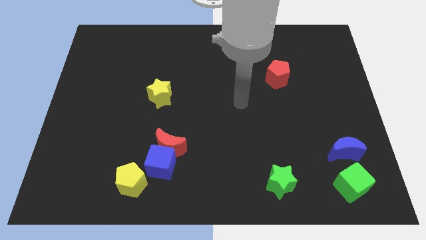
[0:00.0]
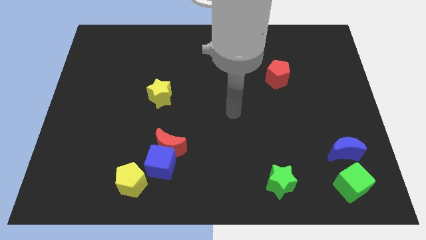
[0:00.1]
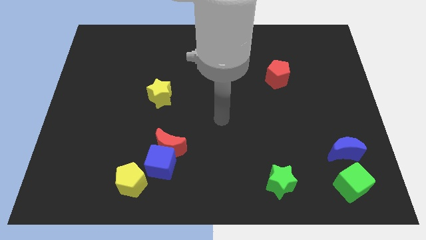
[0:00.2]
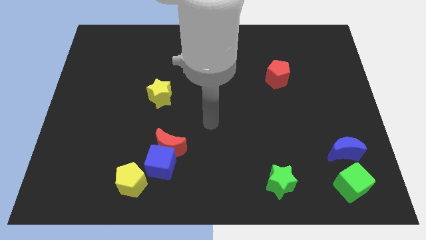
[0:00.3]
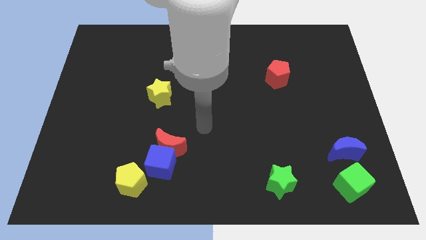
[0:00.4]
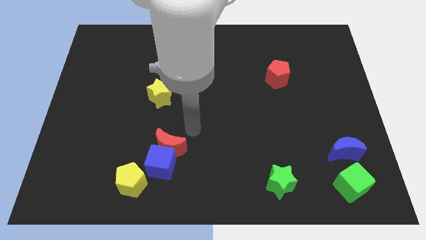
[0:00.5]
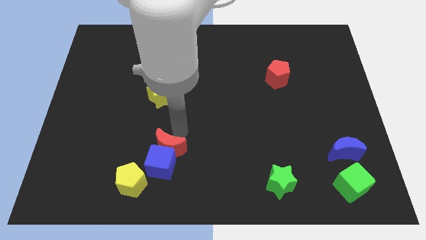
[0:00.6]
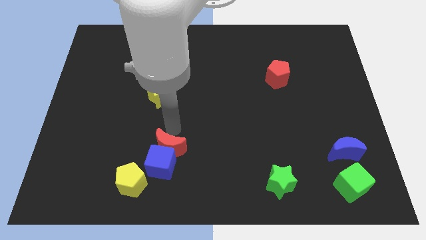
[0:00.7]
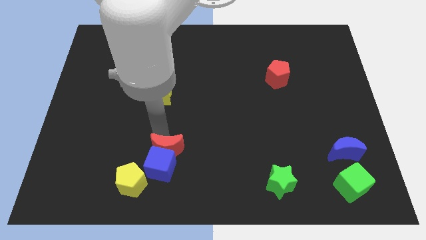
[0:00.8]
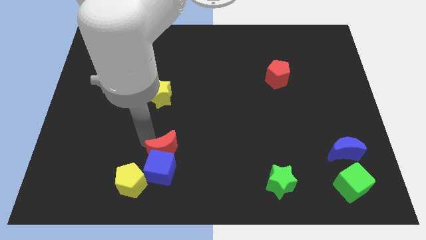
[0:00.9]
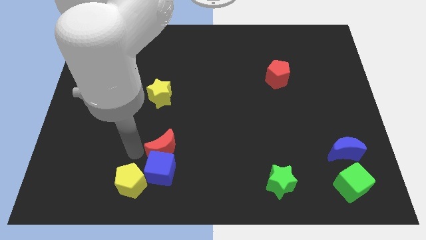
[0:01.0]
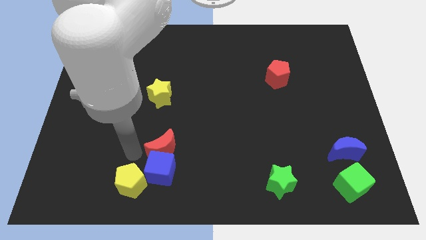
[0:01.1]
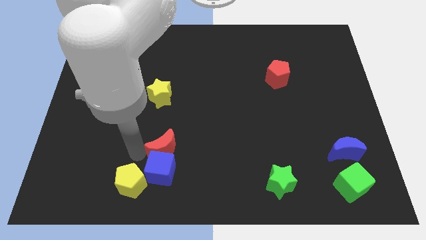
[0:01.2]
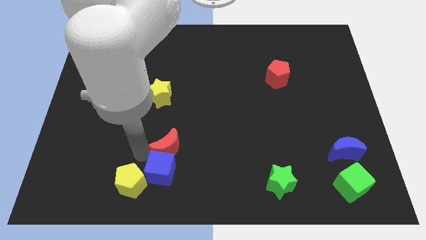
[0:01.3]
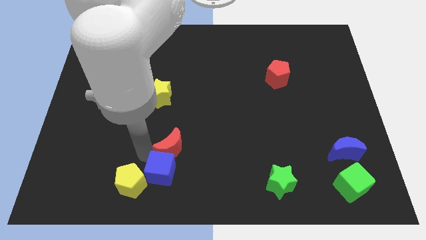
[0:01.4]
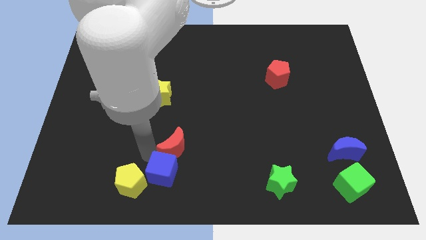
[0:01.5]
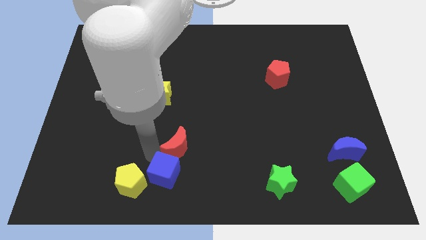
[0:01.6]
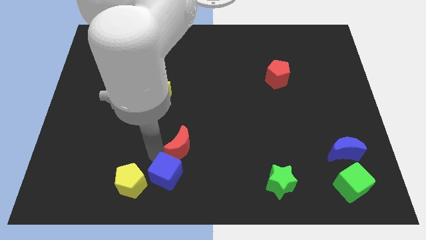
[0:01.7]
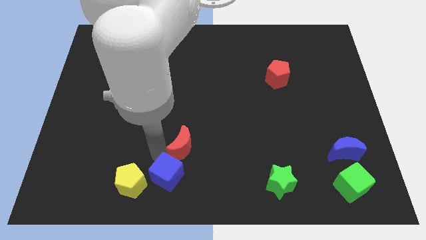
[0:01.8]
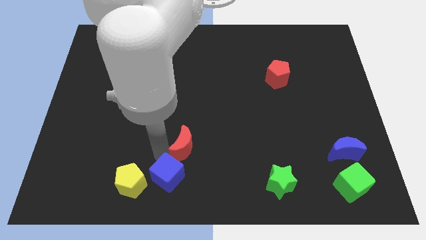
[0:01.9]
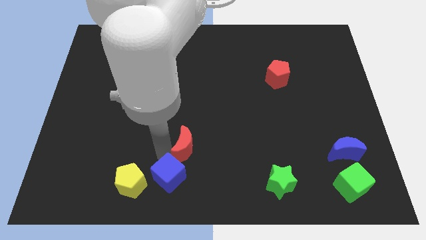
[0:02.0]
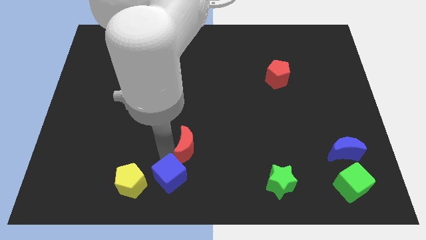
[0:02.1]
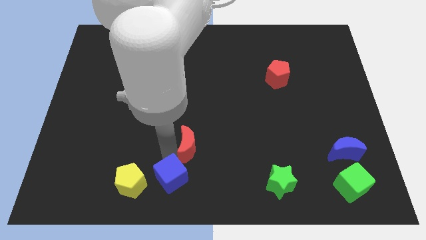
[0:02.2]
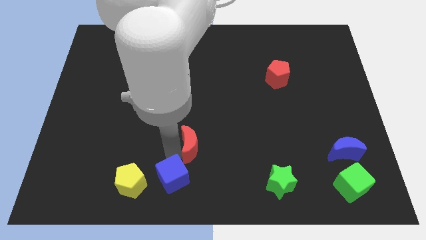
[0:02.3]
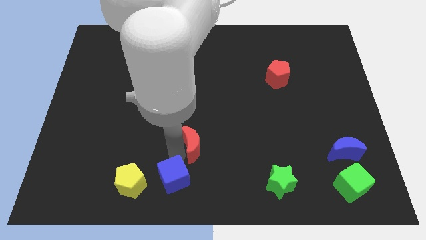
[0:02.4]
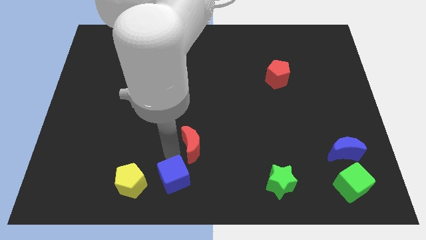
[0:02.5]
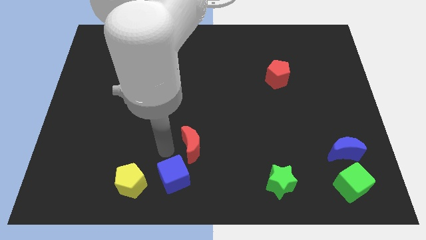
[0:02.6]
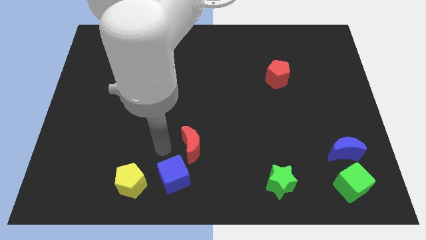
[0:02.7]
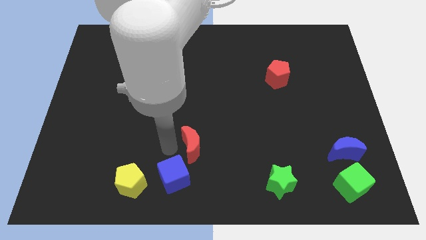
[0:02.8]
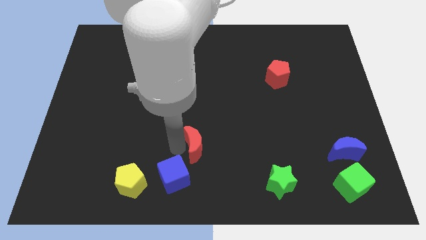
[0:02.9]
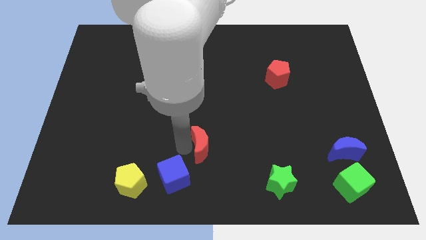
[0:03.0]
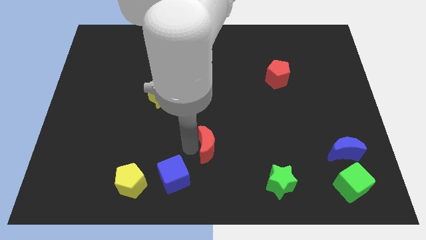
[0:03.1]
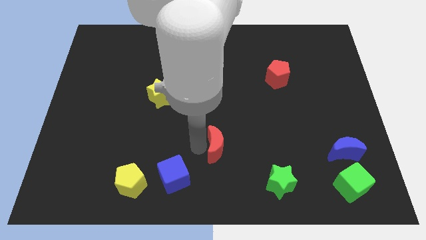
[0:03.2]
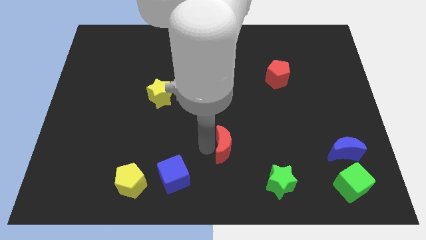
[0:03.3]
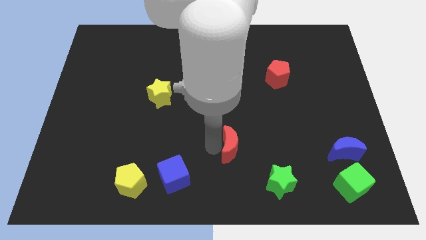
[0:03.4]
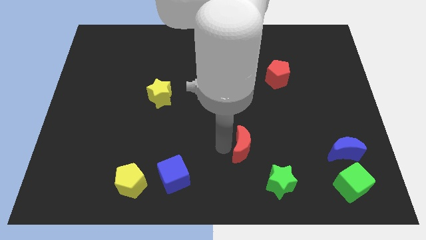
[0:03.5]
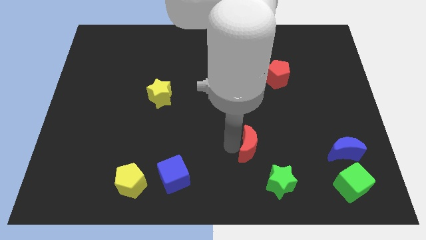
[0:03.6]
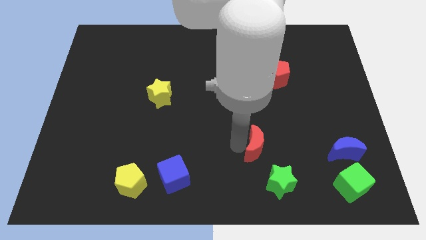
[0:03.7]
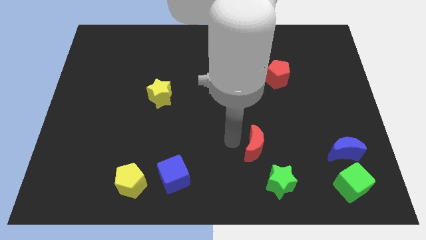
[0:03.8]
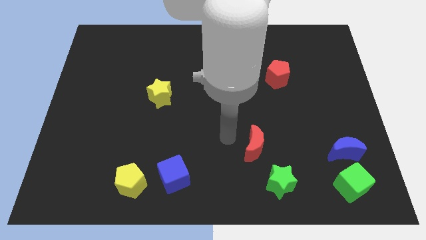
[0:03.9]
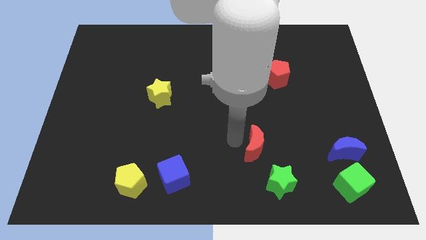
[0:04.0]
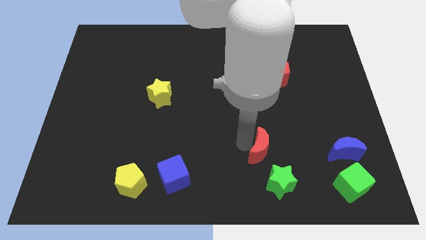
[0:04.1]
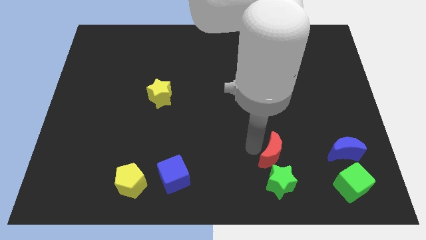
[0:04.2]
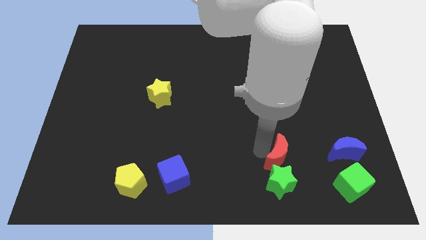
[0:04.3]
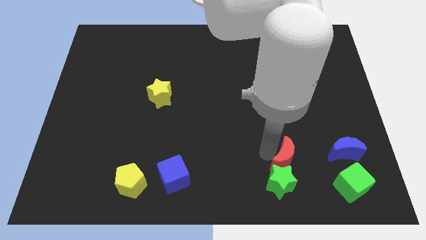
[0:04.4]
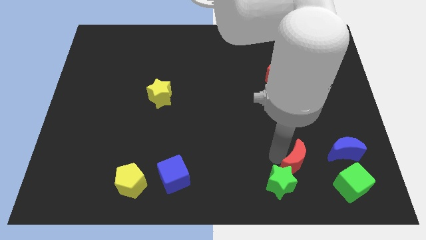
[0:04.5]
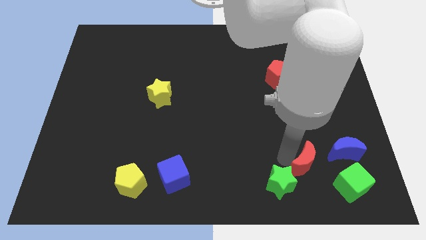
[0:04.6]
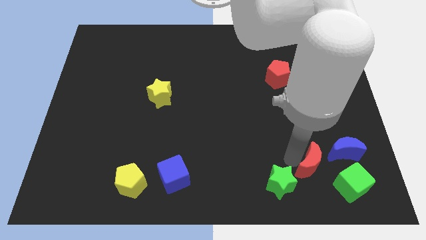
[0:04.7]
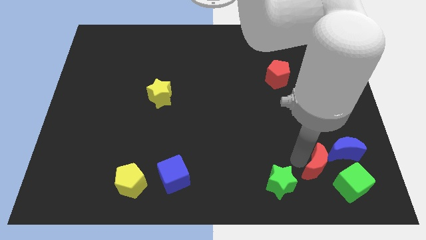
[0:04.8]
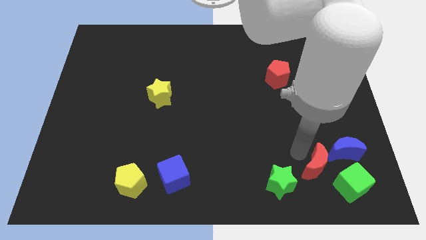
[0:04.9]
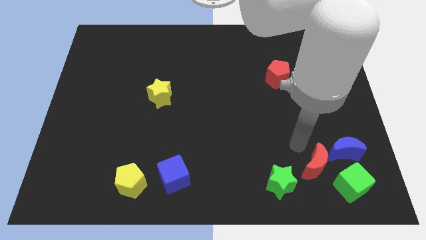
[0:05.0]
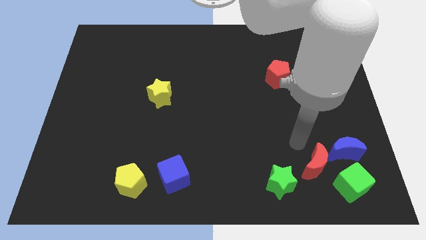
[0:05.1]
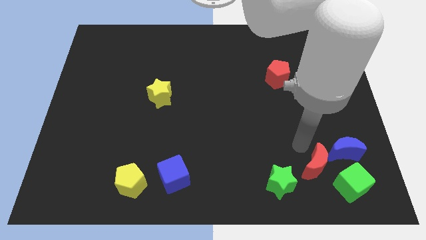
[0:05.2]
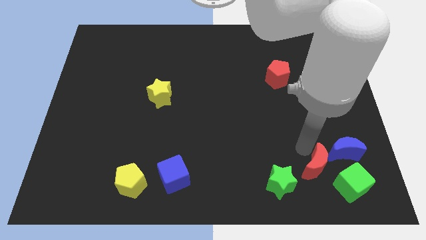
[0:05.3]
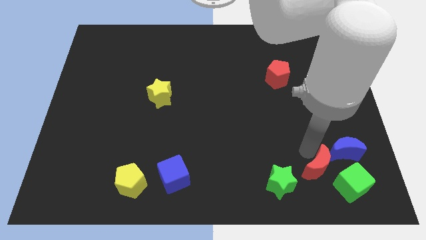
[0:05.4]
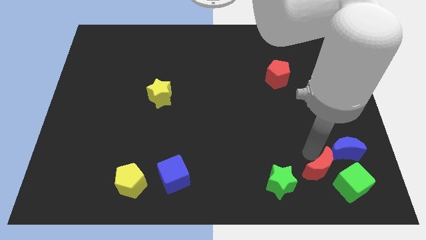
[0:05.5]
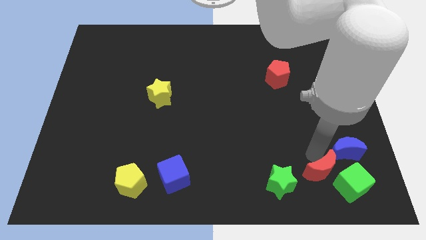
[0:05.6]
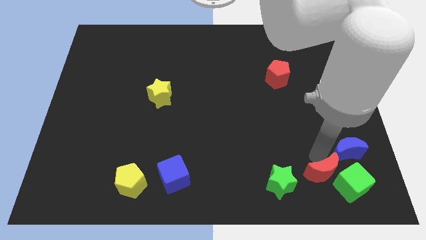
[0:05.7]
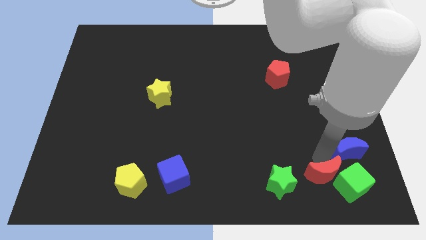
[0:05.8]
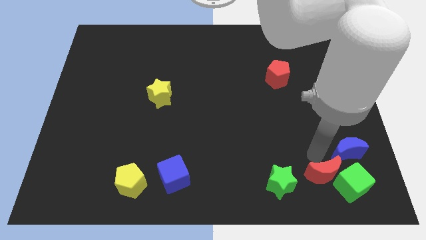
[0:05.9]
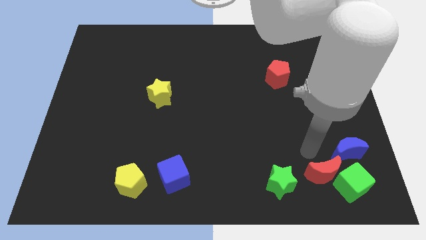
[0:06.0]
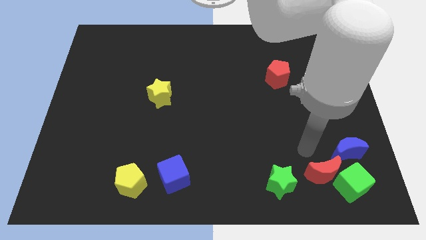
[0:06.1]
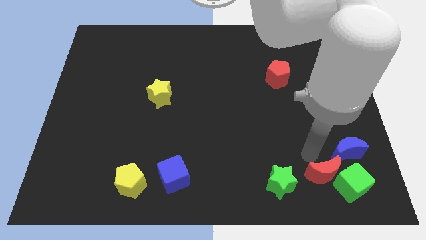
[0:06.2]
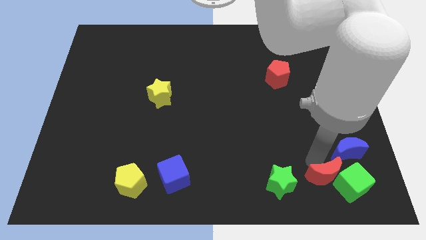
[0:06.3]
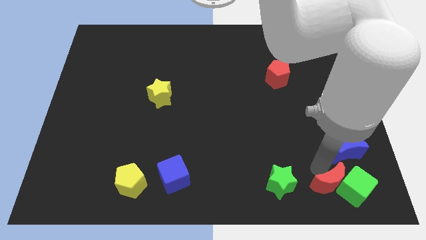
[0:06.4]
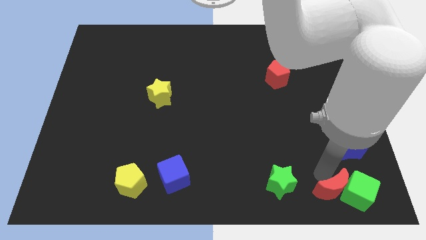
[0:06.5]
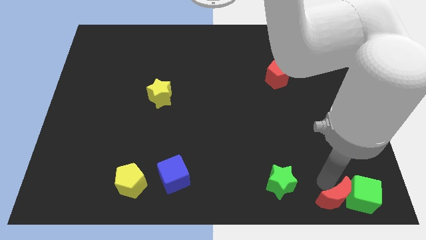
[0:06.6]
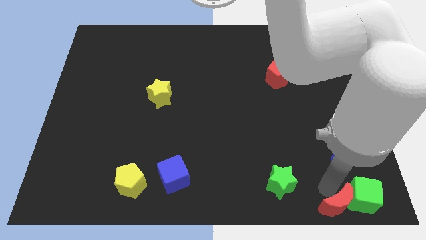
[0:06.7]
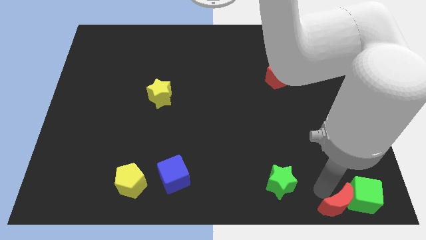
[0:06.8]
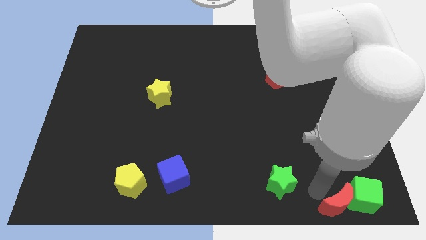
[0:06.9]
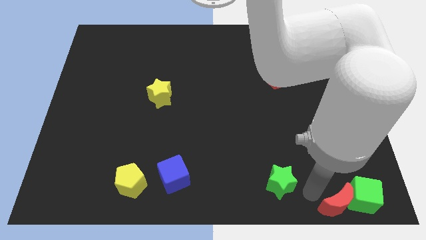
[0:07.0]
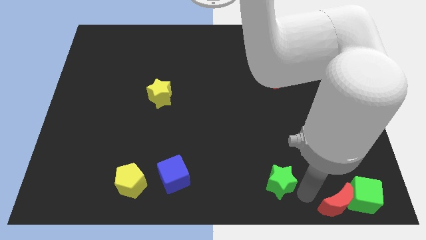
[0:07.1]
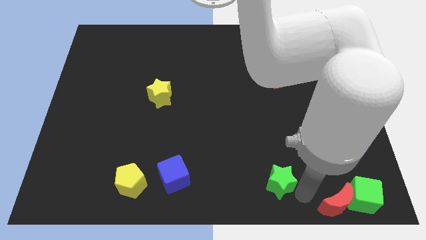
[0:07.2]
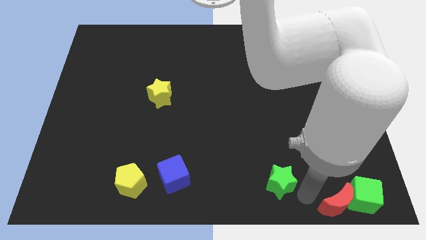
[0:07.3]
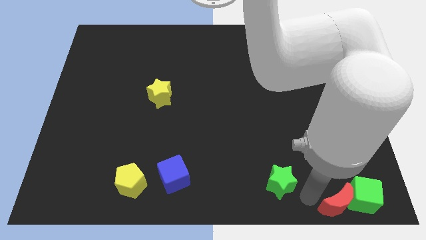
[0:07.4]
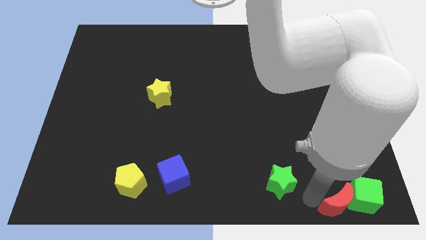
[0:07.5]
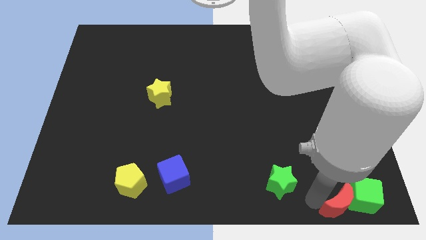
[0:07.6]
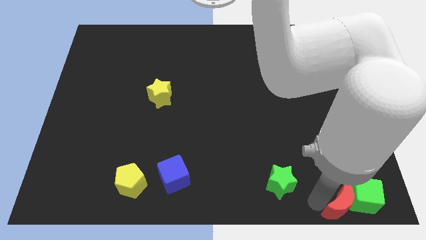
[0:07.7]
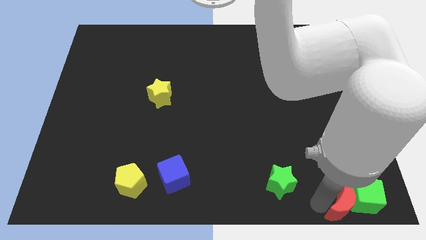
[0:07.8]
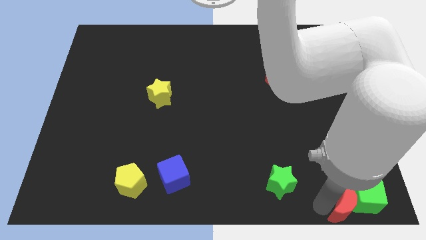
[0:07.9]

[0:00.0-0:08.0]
slide the red moon to the bottom right of the board
